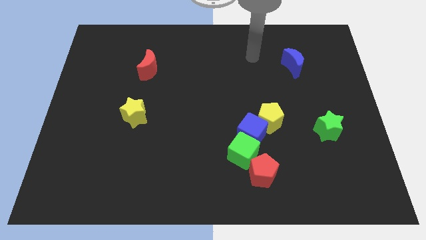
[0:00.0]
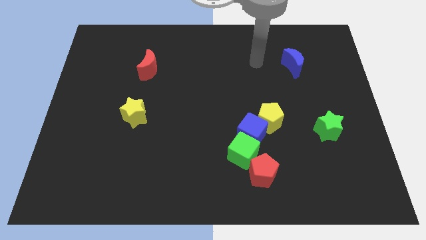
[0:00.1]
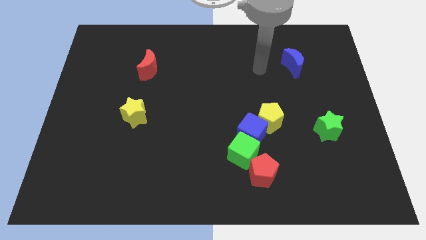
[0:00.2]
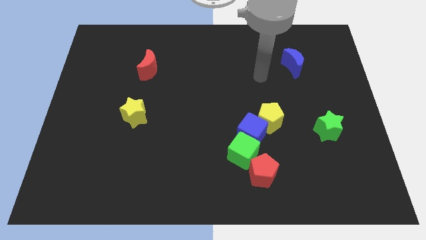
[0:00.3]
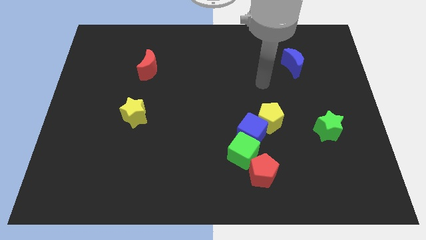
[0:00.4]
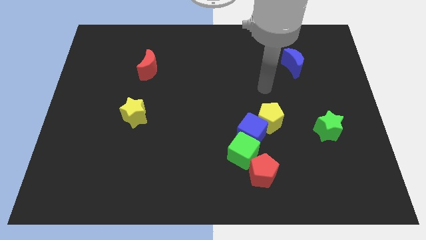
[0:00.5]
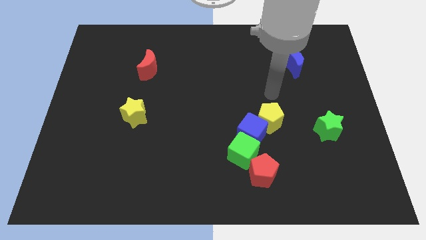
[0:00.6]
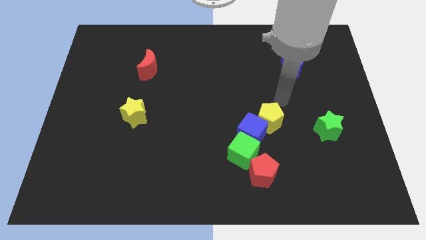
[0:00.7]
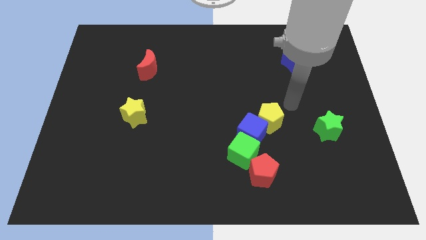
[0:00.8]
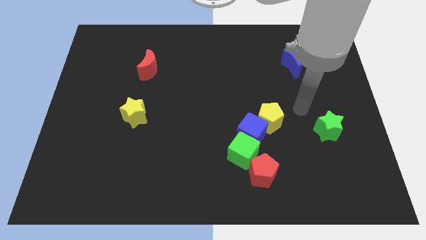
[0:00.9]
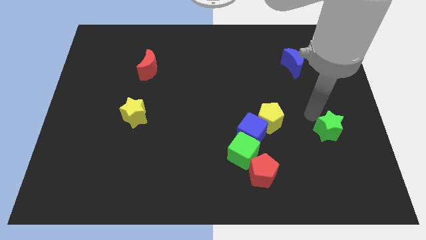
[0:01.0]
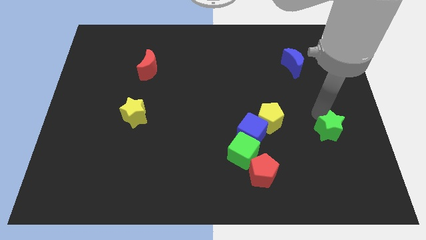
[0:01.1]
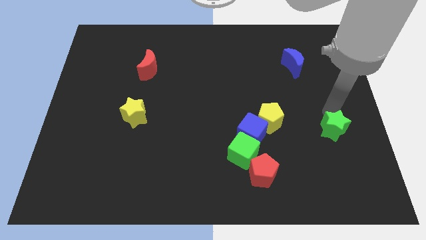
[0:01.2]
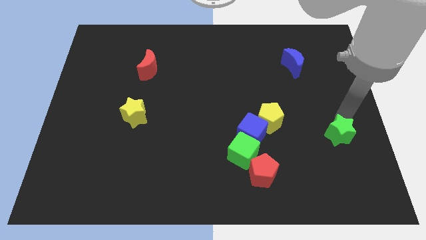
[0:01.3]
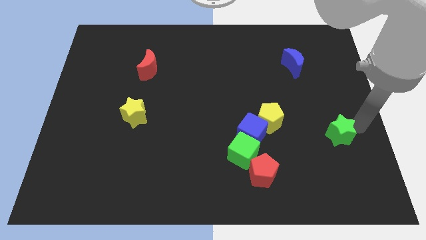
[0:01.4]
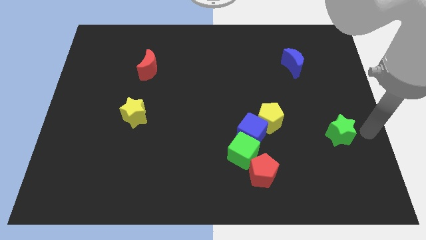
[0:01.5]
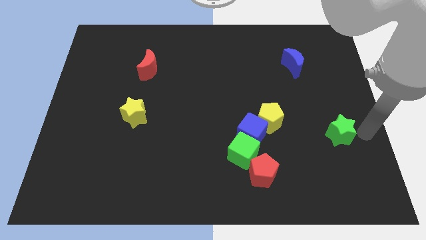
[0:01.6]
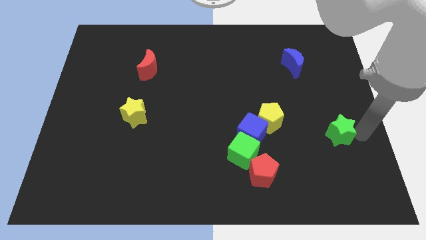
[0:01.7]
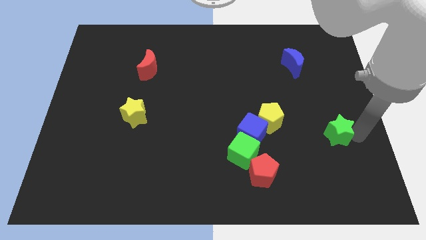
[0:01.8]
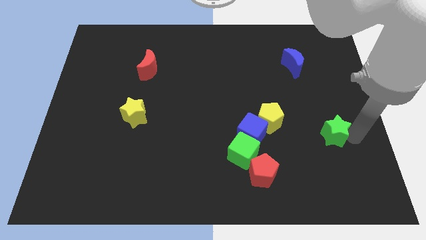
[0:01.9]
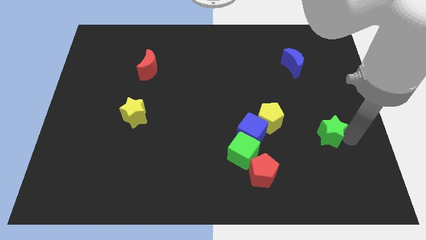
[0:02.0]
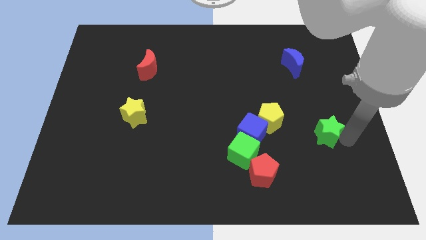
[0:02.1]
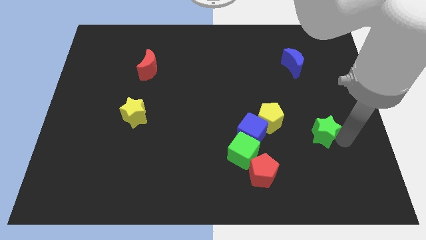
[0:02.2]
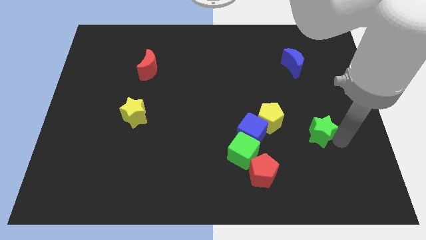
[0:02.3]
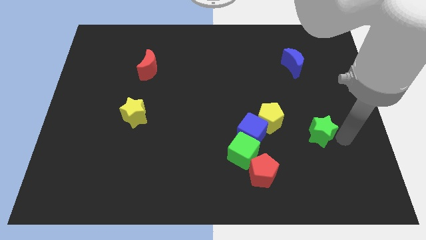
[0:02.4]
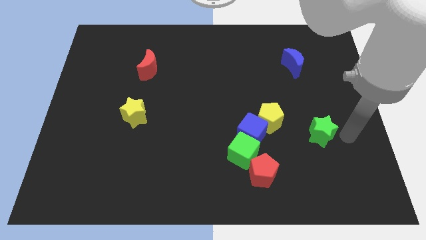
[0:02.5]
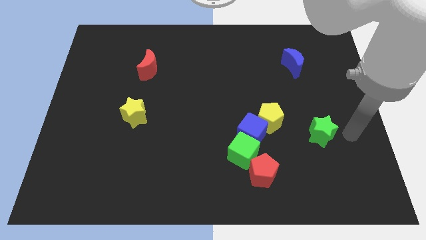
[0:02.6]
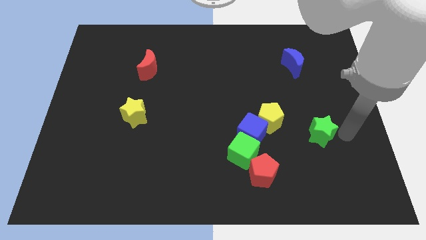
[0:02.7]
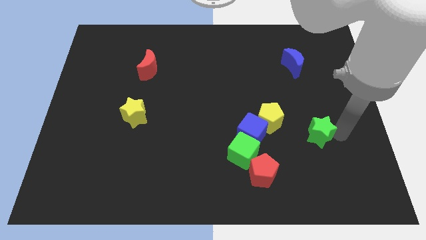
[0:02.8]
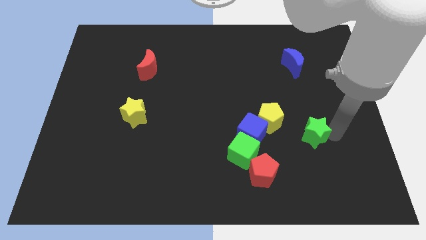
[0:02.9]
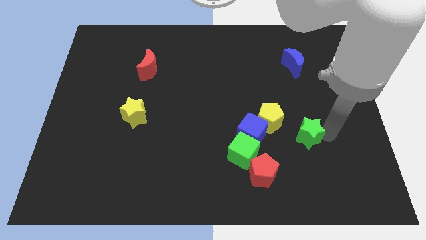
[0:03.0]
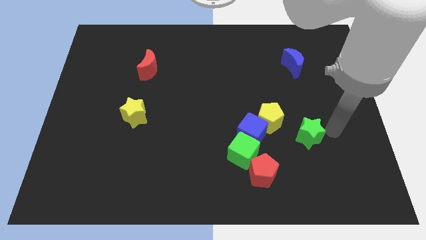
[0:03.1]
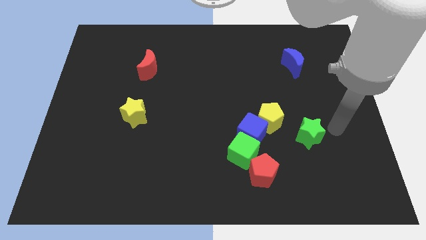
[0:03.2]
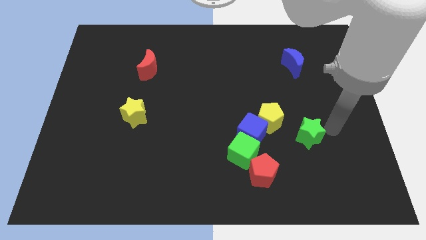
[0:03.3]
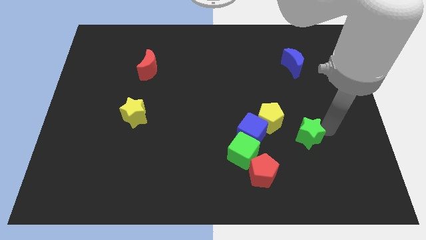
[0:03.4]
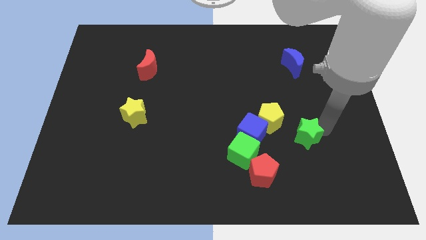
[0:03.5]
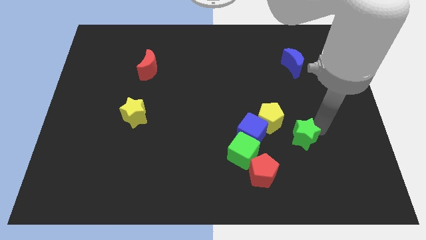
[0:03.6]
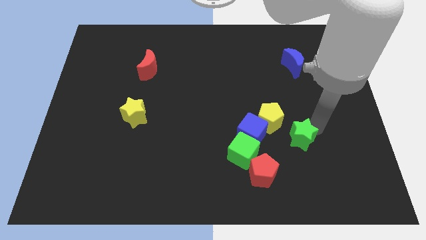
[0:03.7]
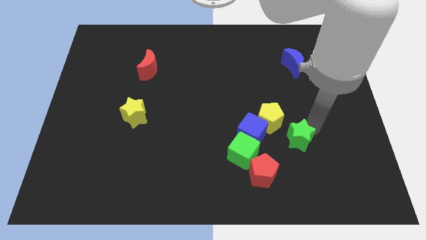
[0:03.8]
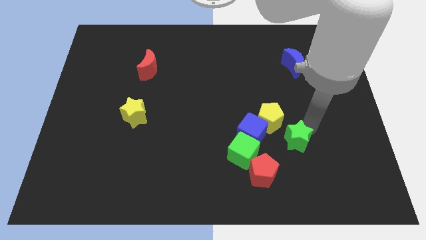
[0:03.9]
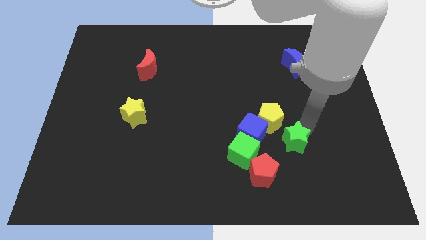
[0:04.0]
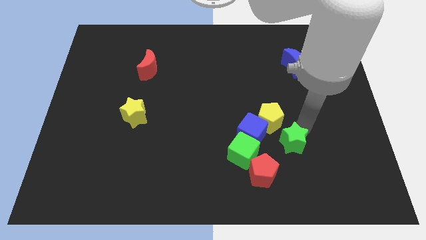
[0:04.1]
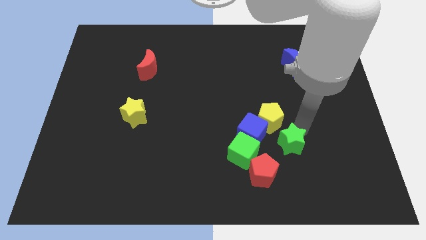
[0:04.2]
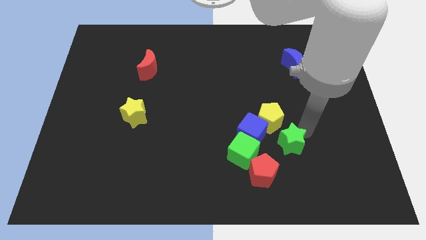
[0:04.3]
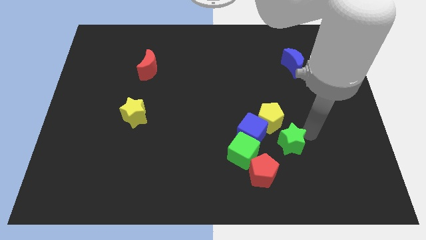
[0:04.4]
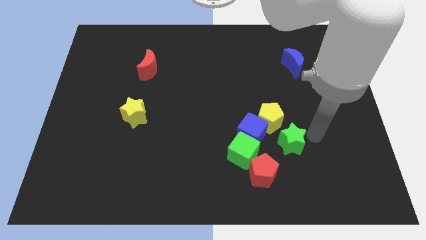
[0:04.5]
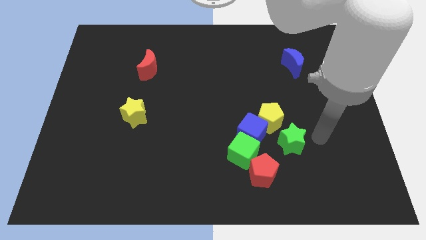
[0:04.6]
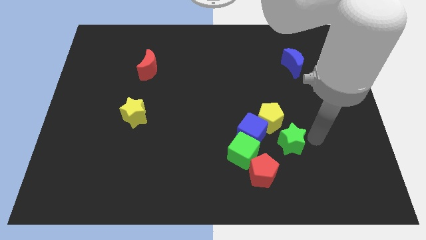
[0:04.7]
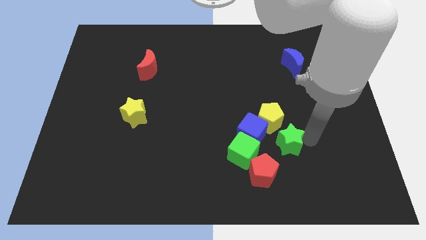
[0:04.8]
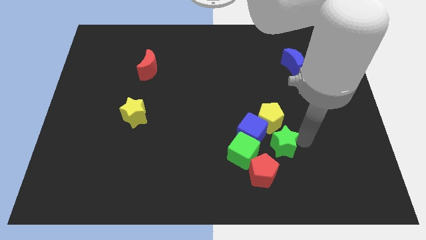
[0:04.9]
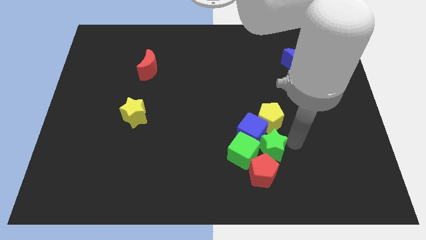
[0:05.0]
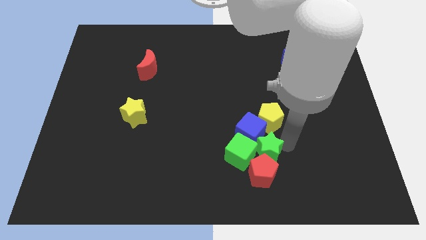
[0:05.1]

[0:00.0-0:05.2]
put the green star towards the green cube

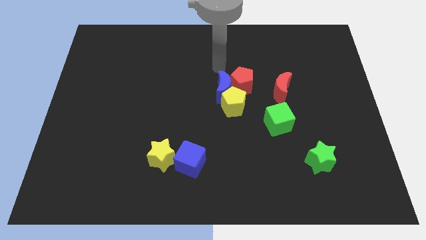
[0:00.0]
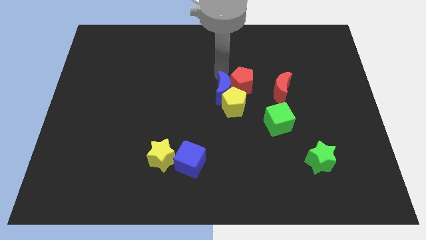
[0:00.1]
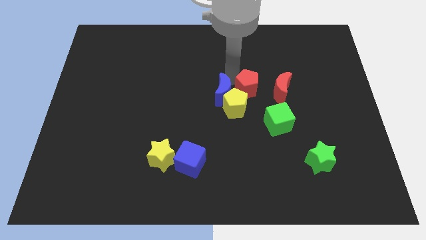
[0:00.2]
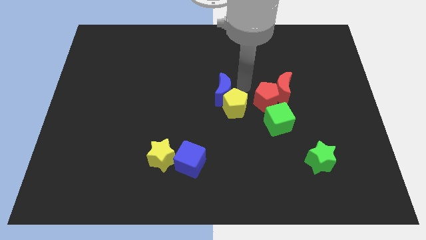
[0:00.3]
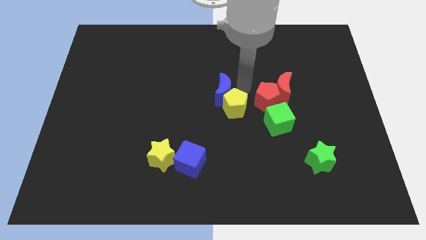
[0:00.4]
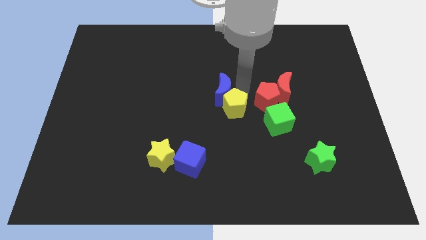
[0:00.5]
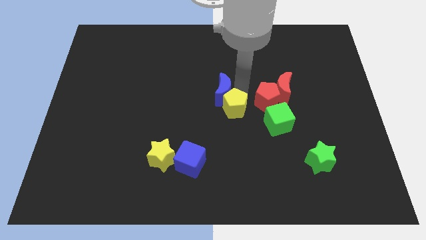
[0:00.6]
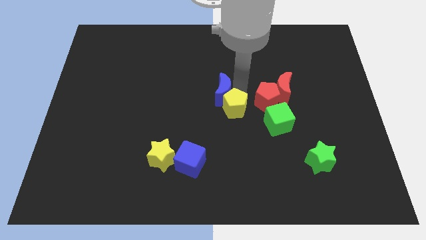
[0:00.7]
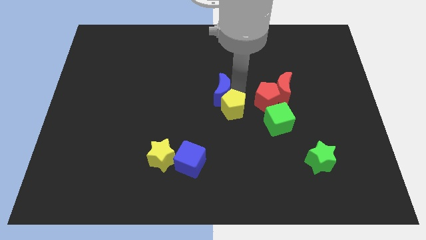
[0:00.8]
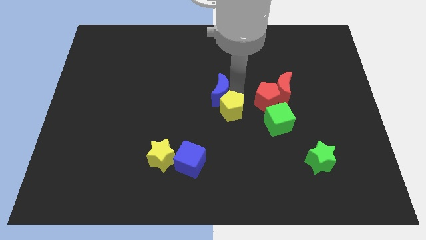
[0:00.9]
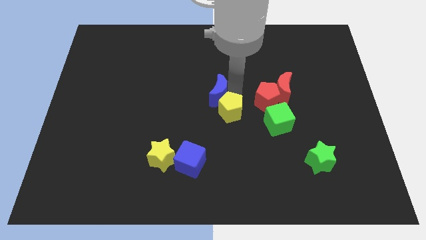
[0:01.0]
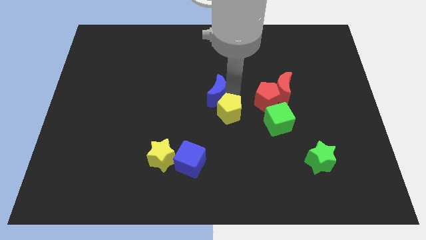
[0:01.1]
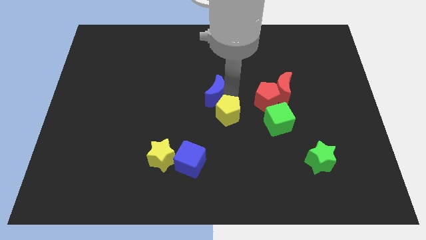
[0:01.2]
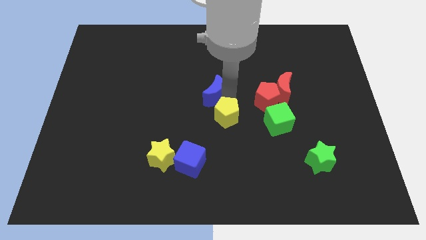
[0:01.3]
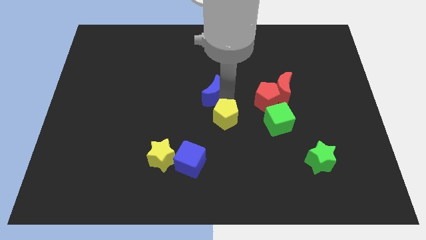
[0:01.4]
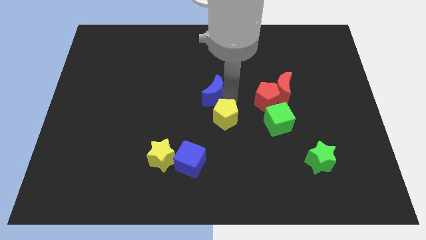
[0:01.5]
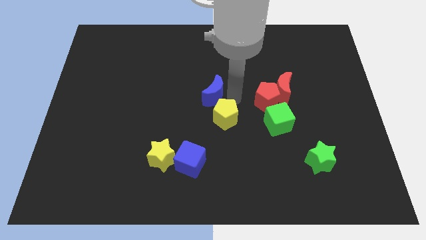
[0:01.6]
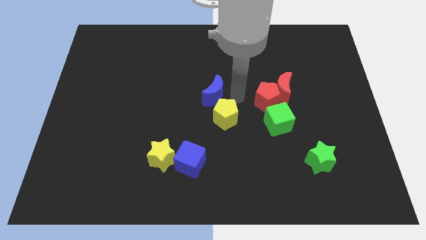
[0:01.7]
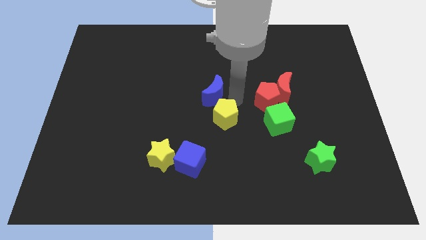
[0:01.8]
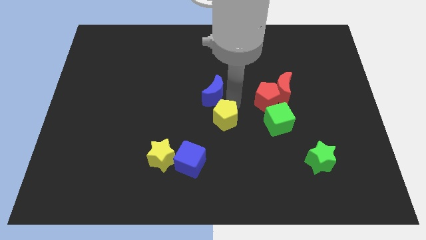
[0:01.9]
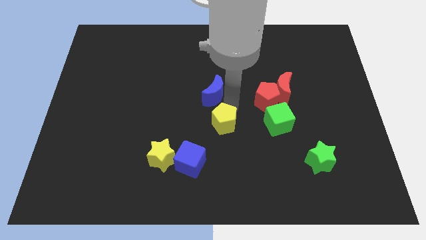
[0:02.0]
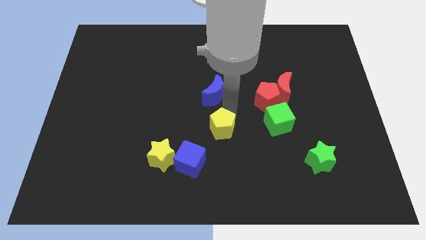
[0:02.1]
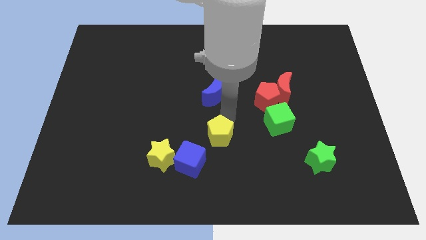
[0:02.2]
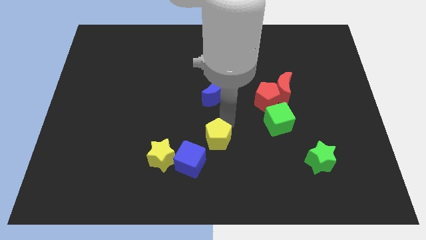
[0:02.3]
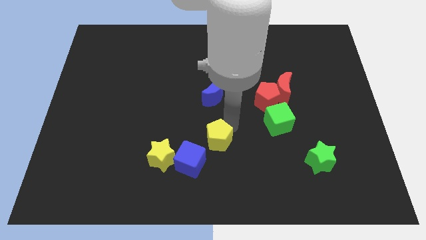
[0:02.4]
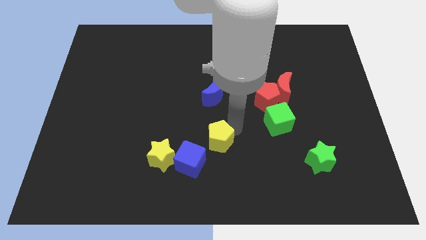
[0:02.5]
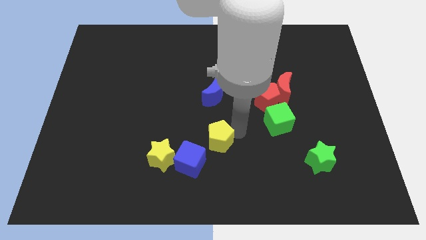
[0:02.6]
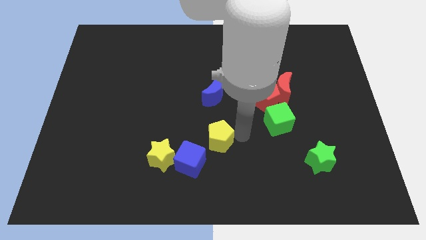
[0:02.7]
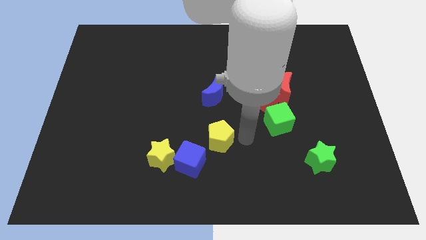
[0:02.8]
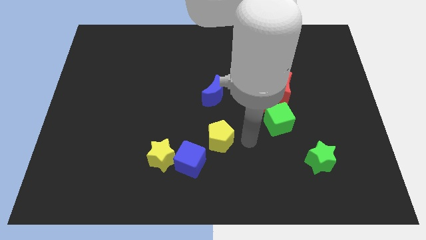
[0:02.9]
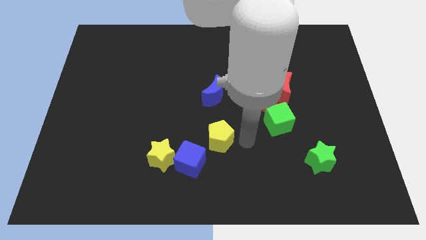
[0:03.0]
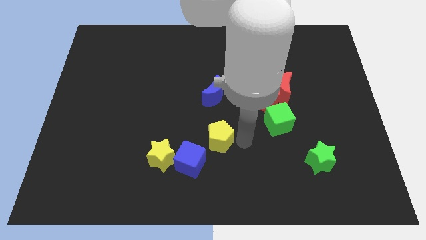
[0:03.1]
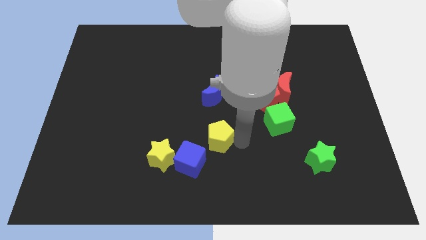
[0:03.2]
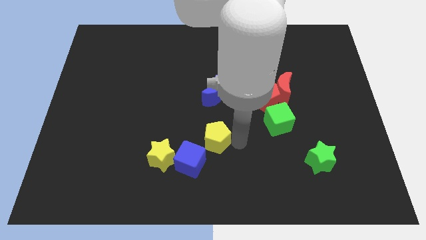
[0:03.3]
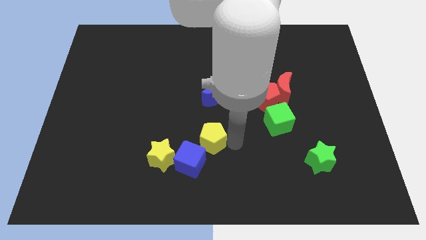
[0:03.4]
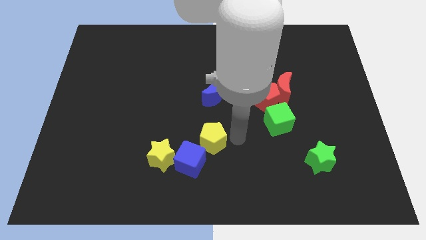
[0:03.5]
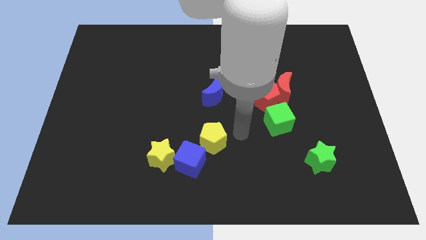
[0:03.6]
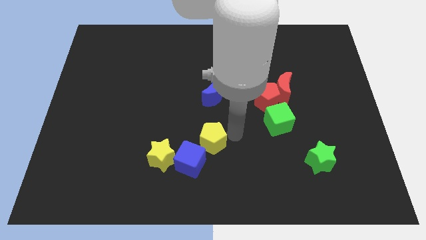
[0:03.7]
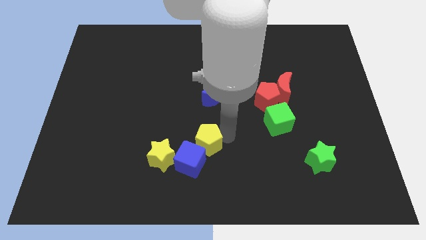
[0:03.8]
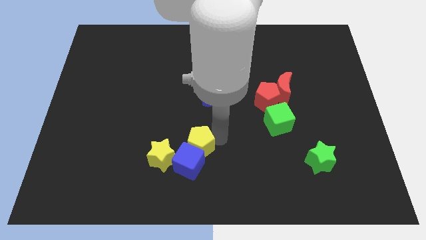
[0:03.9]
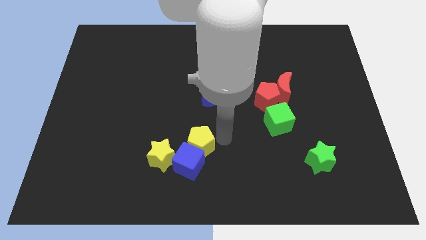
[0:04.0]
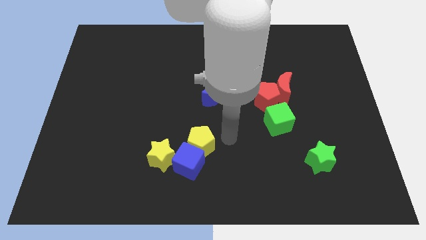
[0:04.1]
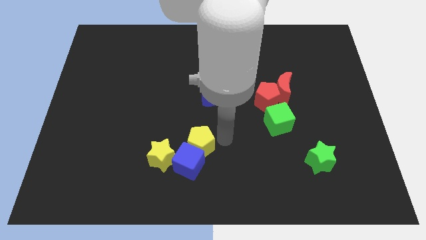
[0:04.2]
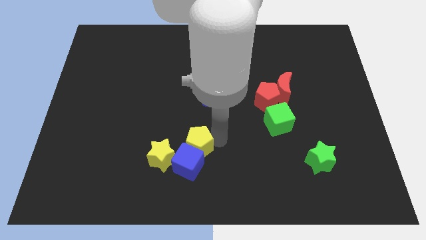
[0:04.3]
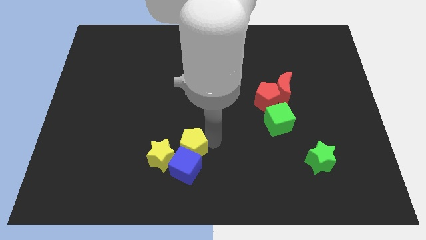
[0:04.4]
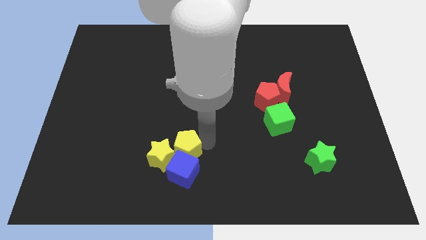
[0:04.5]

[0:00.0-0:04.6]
slide the yellow pentagon to the yellow star
